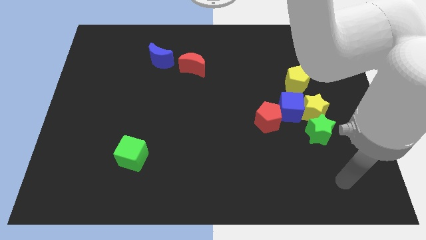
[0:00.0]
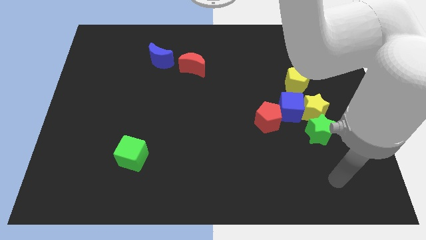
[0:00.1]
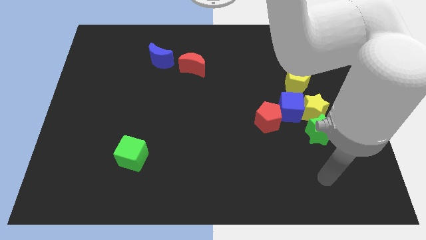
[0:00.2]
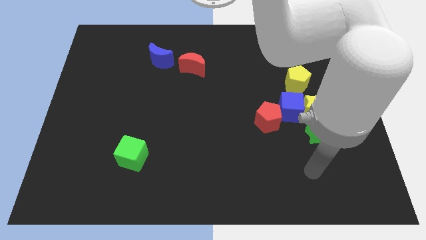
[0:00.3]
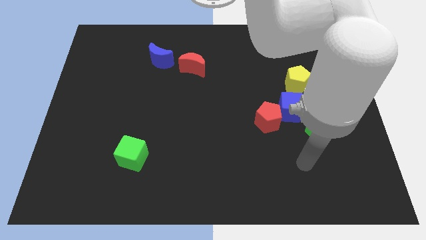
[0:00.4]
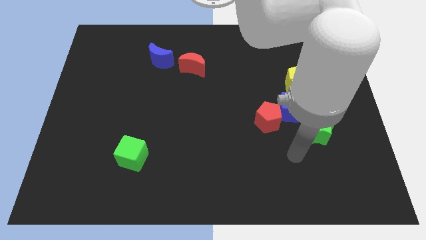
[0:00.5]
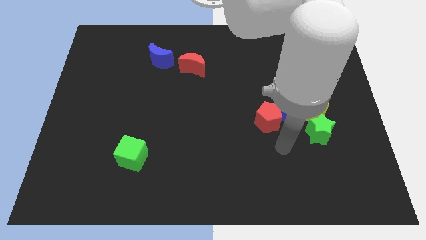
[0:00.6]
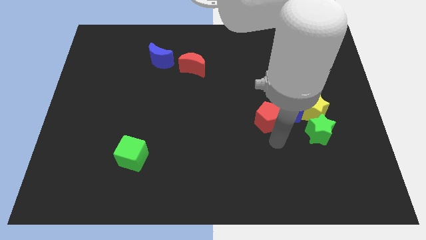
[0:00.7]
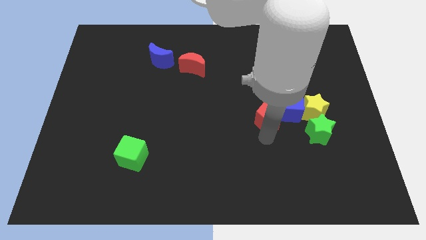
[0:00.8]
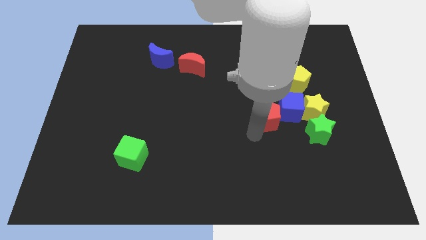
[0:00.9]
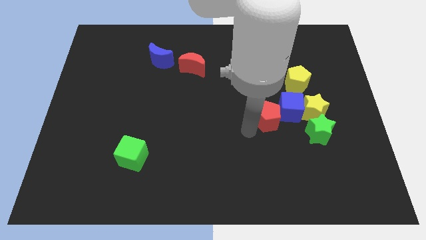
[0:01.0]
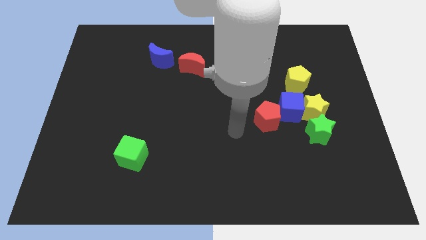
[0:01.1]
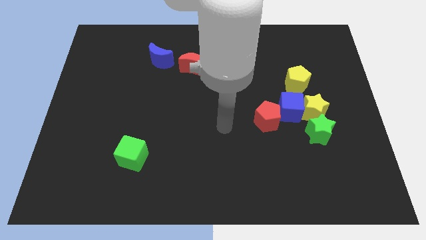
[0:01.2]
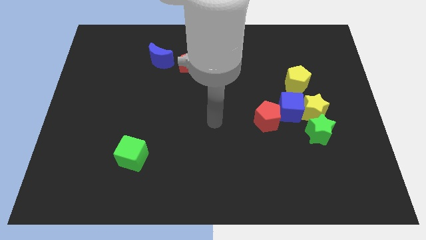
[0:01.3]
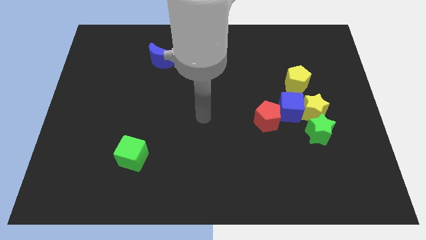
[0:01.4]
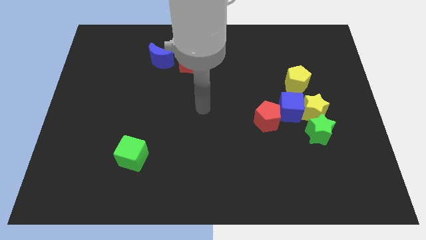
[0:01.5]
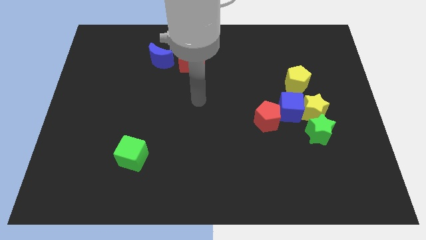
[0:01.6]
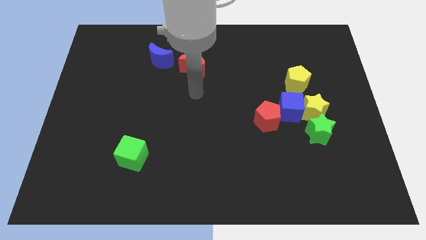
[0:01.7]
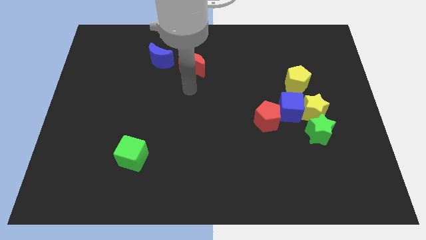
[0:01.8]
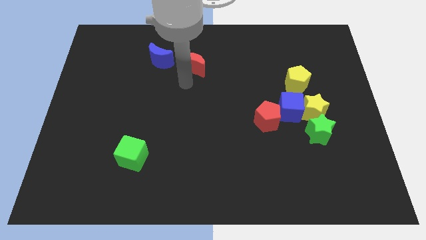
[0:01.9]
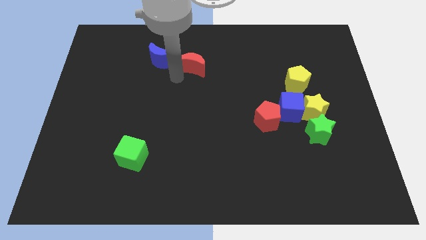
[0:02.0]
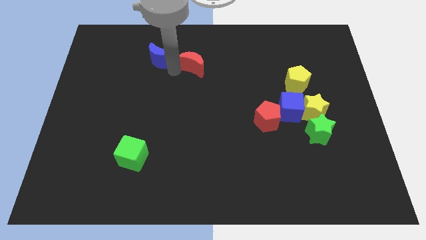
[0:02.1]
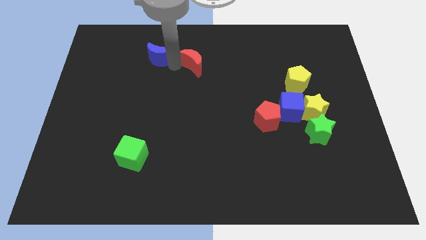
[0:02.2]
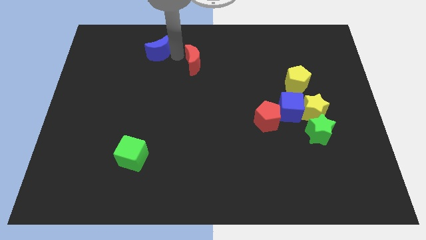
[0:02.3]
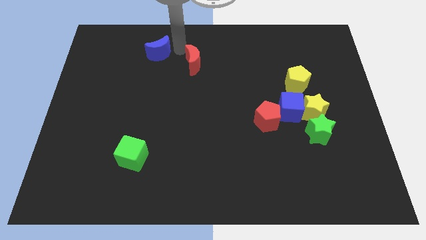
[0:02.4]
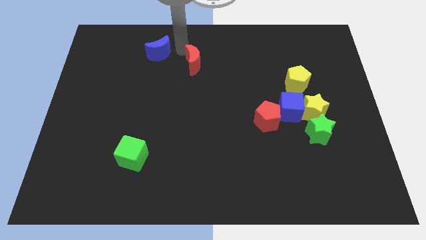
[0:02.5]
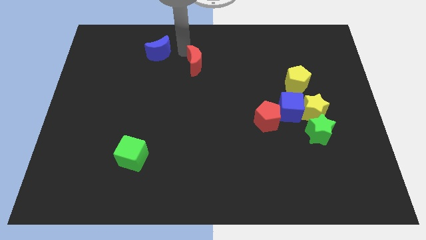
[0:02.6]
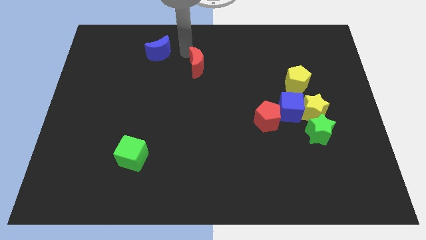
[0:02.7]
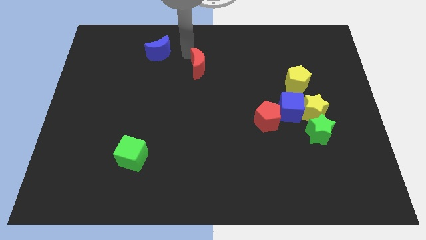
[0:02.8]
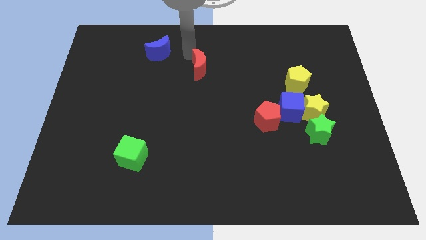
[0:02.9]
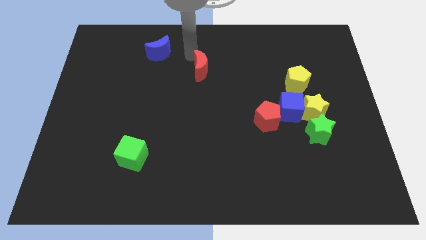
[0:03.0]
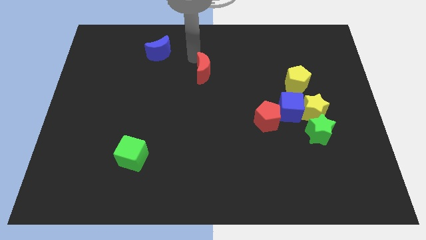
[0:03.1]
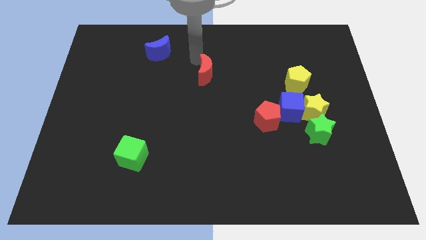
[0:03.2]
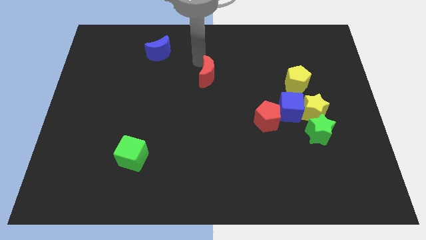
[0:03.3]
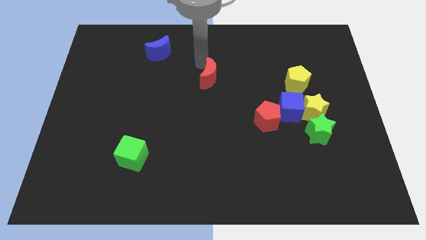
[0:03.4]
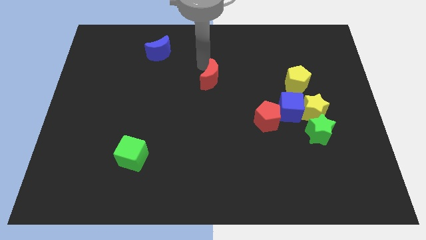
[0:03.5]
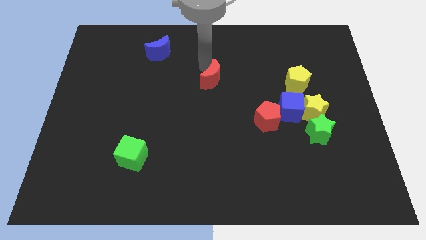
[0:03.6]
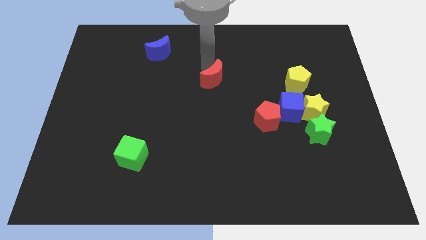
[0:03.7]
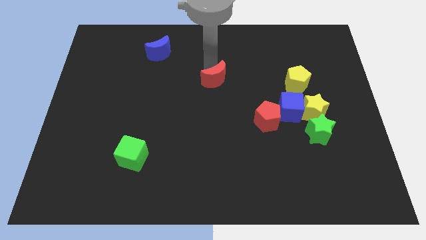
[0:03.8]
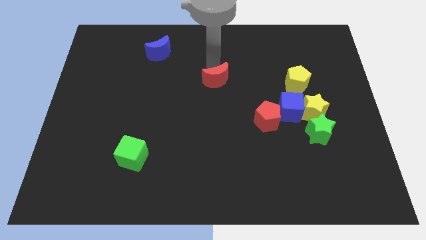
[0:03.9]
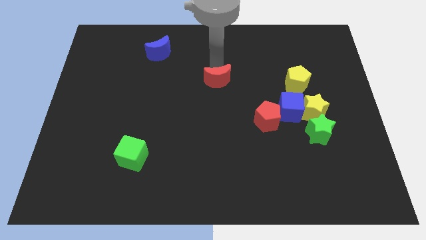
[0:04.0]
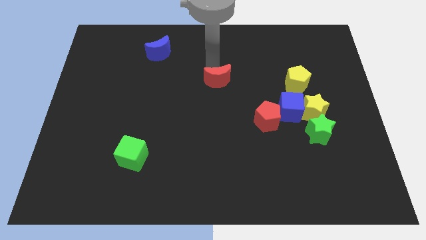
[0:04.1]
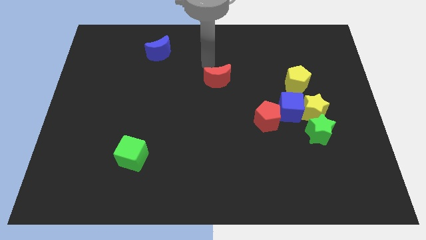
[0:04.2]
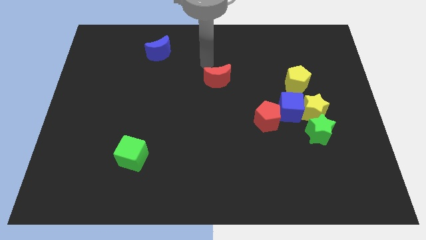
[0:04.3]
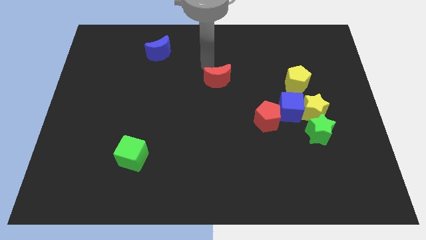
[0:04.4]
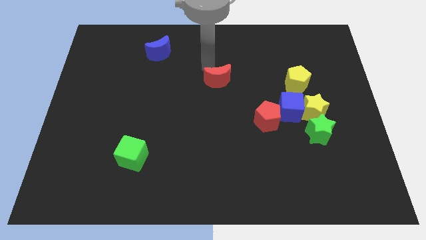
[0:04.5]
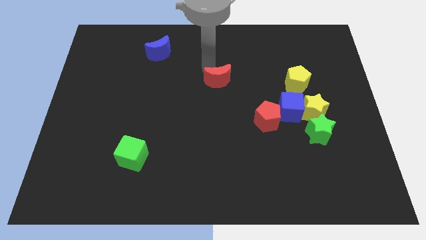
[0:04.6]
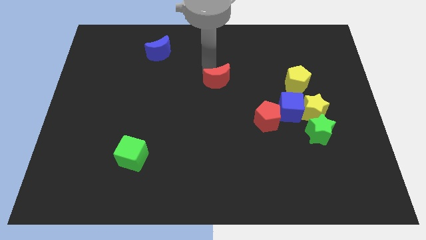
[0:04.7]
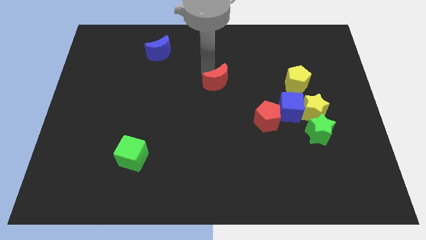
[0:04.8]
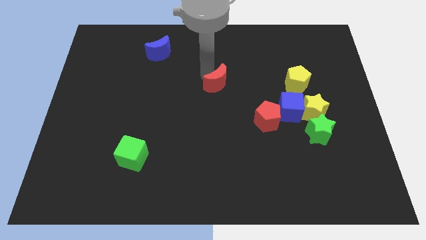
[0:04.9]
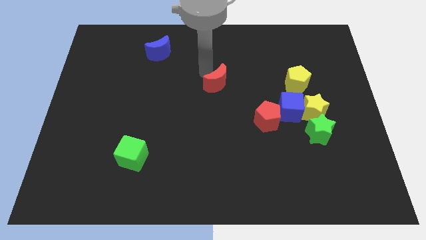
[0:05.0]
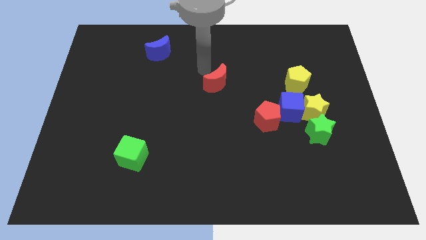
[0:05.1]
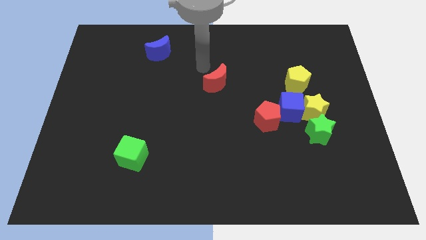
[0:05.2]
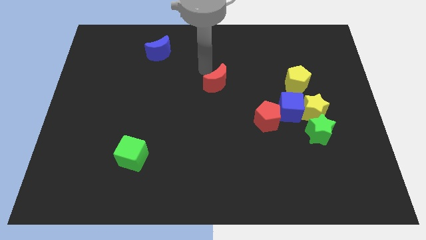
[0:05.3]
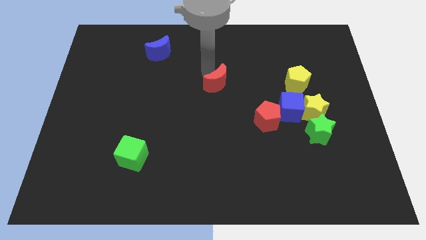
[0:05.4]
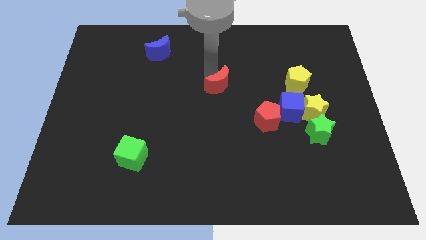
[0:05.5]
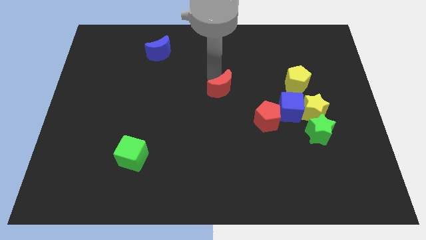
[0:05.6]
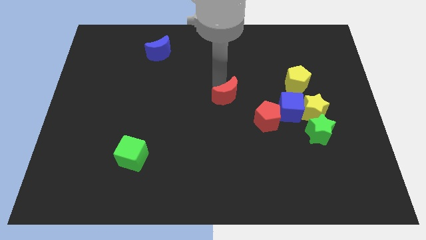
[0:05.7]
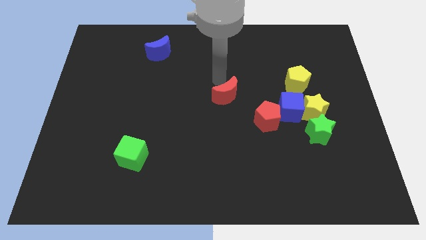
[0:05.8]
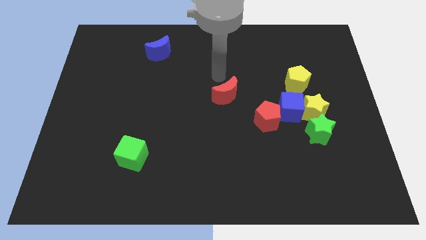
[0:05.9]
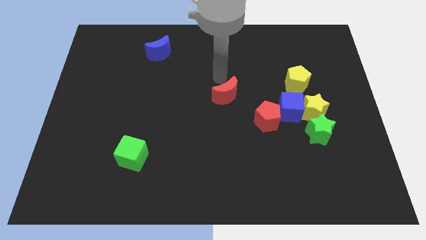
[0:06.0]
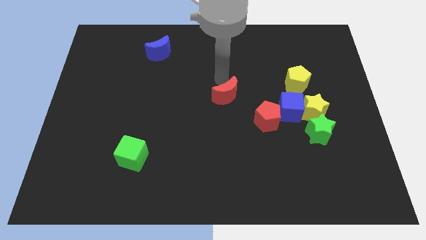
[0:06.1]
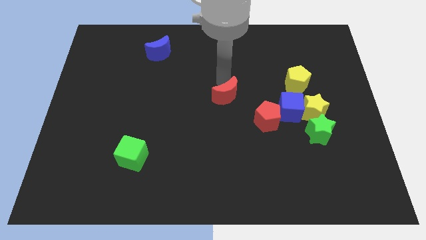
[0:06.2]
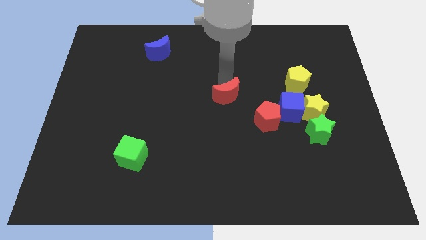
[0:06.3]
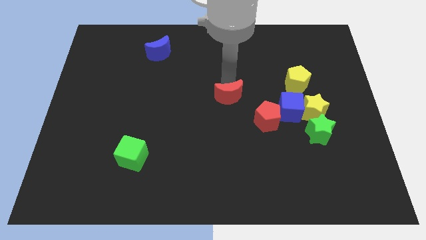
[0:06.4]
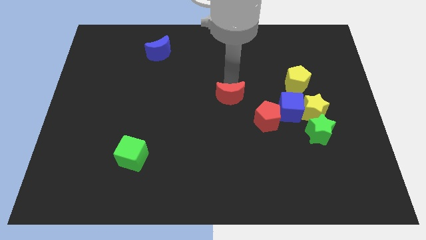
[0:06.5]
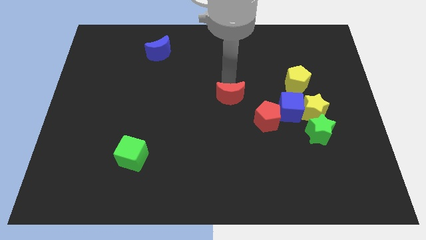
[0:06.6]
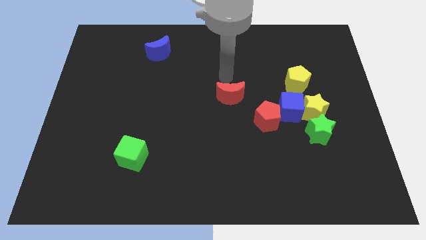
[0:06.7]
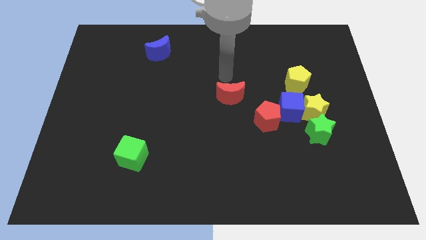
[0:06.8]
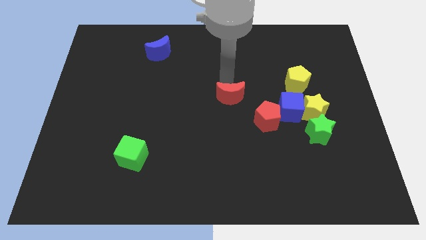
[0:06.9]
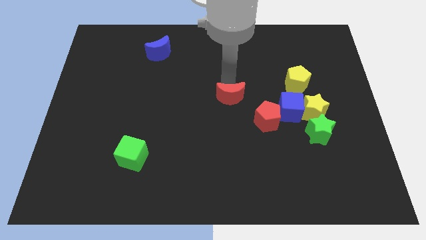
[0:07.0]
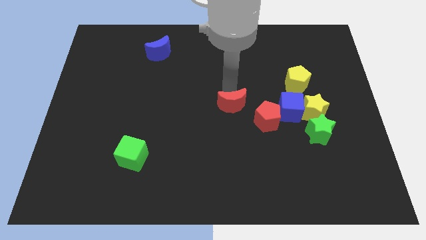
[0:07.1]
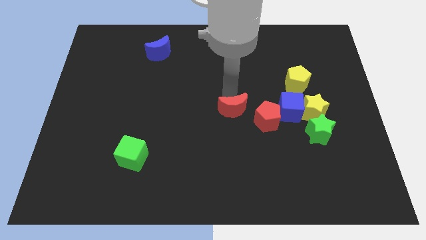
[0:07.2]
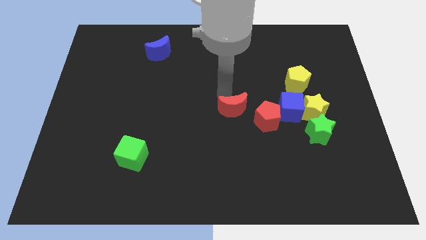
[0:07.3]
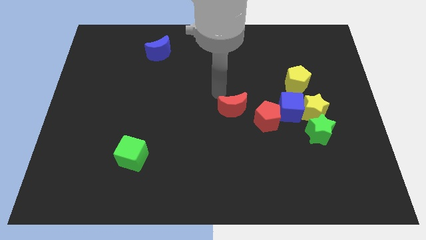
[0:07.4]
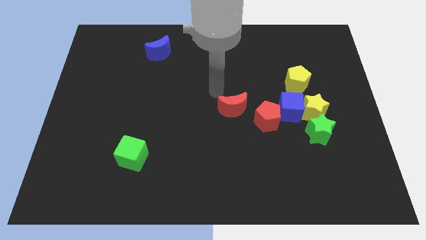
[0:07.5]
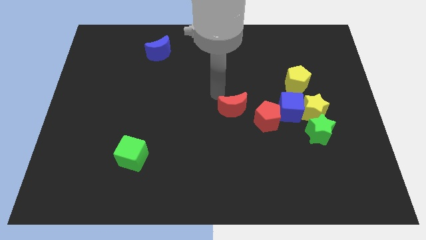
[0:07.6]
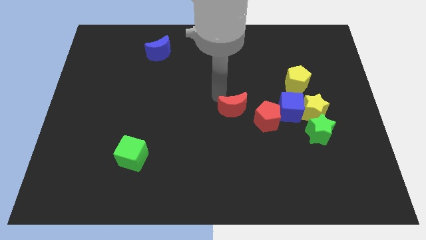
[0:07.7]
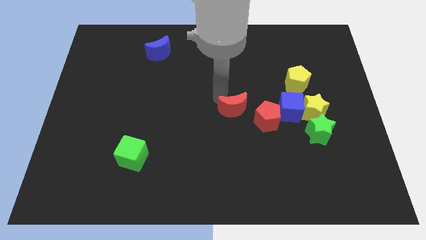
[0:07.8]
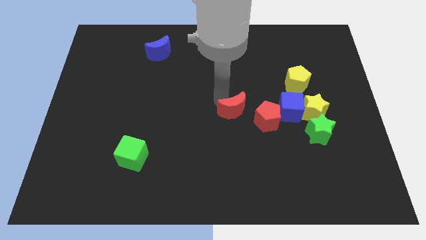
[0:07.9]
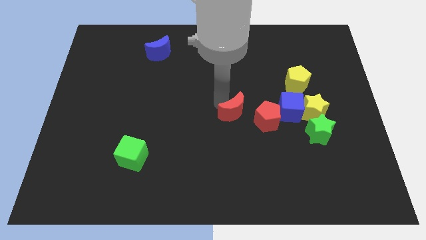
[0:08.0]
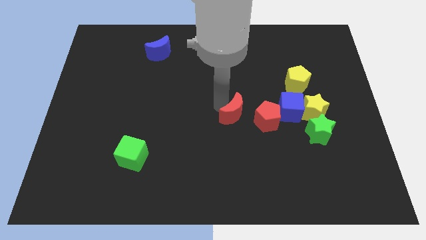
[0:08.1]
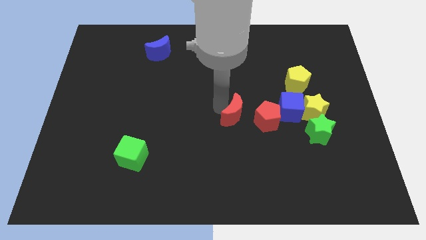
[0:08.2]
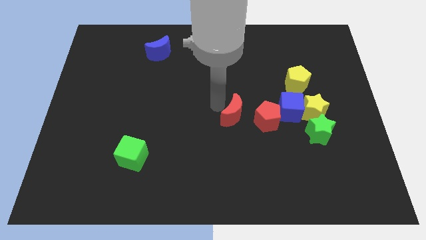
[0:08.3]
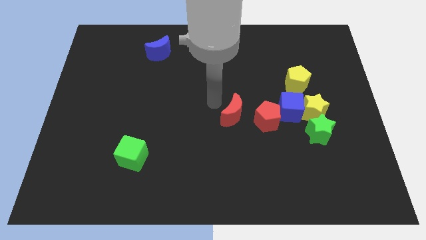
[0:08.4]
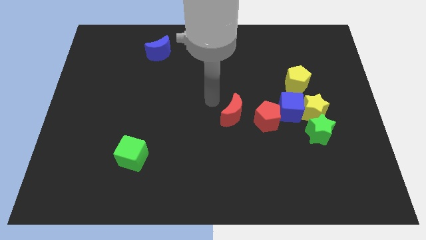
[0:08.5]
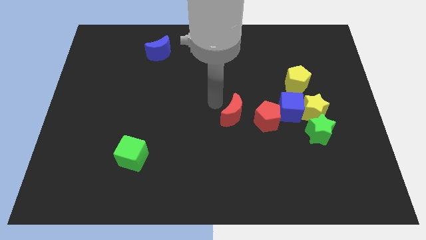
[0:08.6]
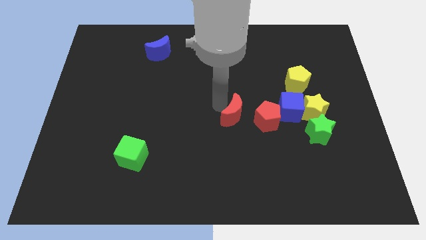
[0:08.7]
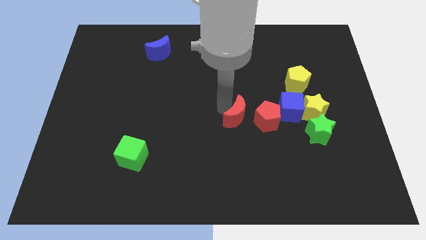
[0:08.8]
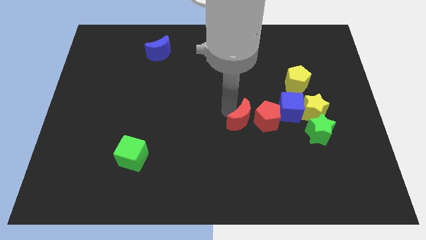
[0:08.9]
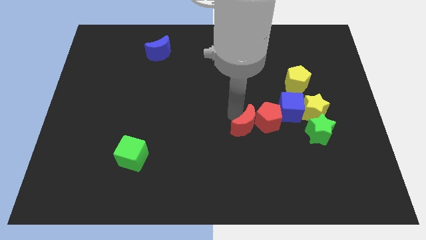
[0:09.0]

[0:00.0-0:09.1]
push the red moon downwards and right
